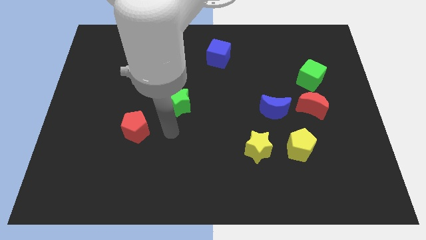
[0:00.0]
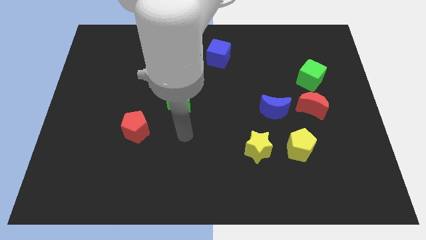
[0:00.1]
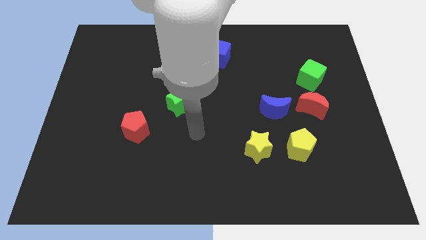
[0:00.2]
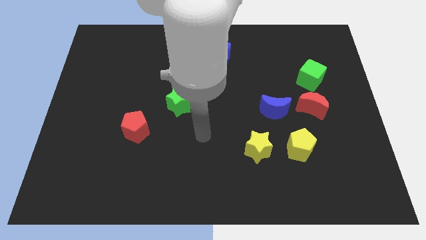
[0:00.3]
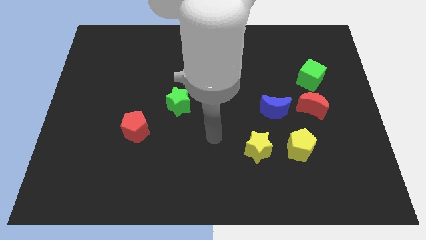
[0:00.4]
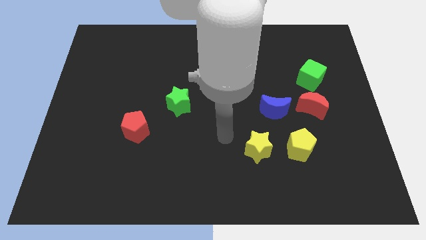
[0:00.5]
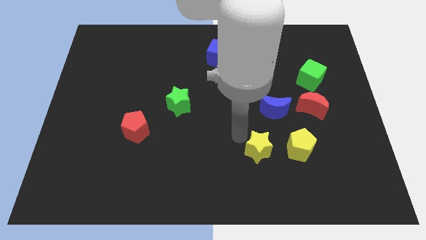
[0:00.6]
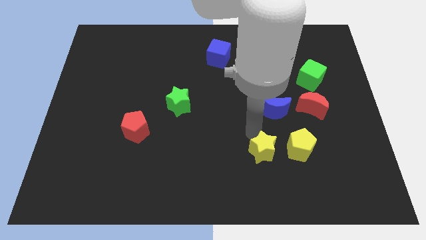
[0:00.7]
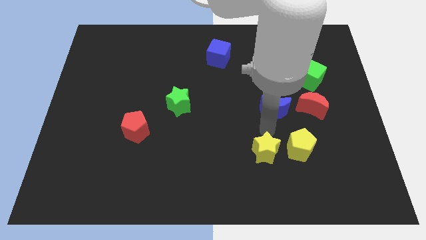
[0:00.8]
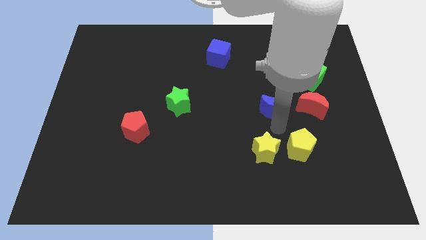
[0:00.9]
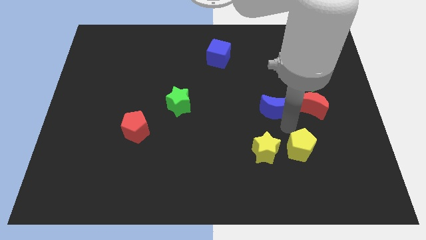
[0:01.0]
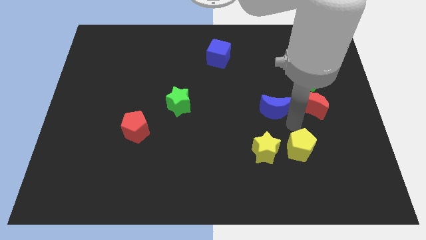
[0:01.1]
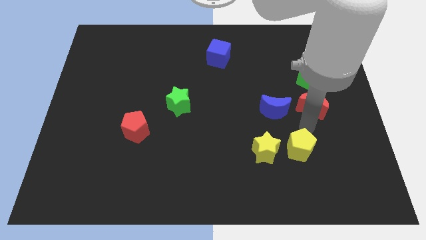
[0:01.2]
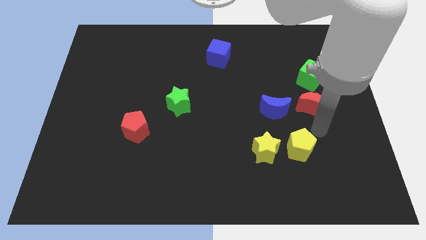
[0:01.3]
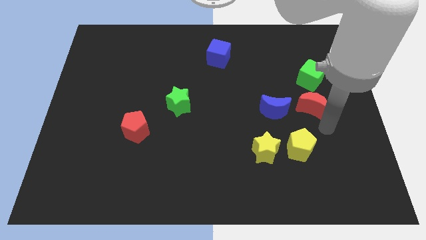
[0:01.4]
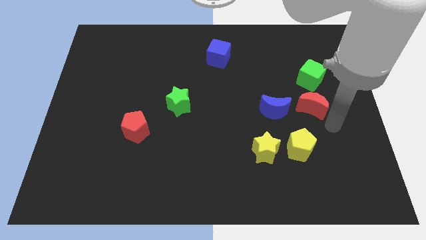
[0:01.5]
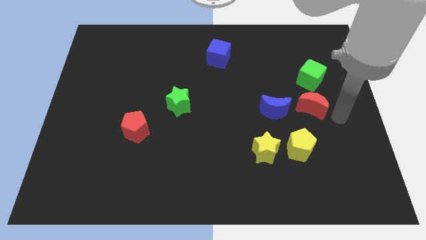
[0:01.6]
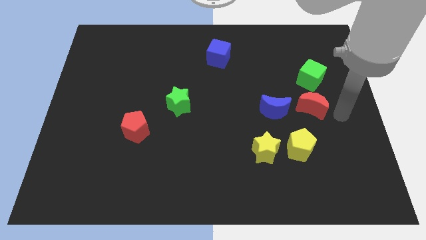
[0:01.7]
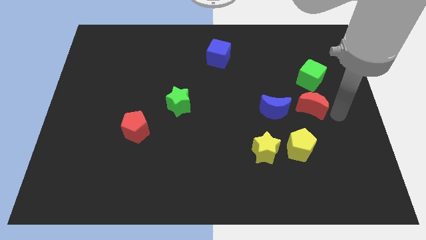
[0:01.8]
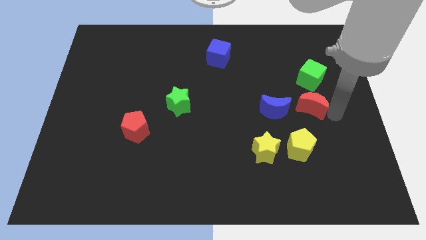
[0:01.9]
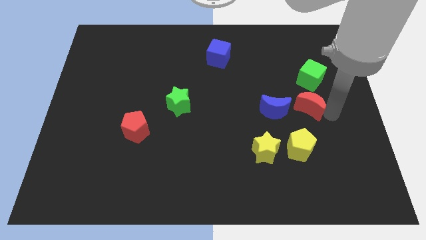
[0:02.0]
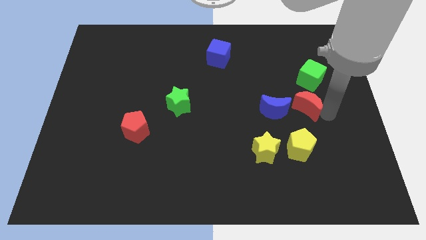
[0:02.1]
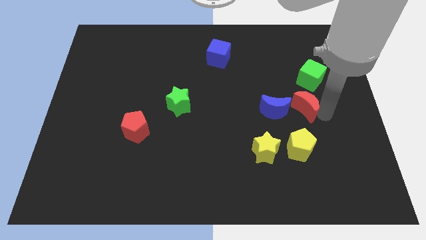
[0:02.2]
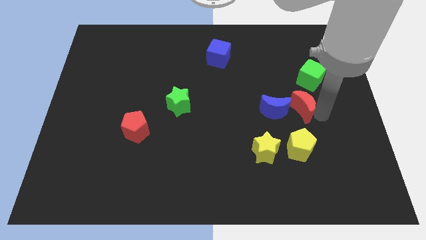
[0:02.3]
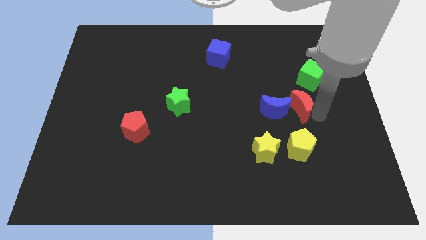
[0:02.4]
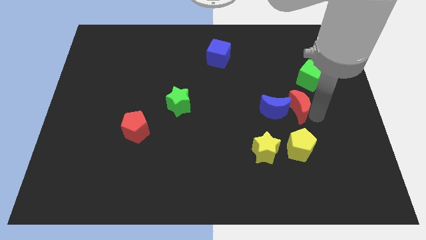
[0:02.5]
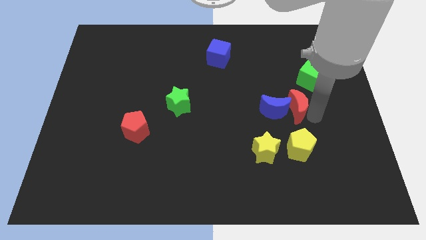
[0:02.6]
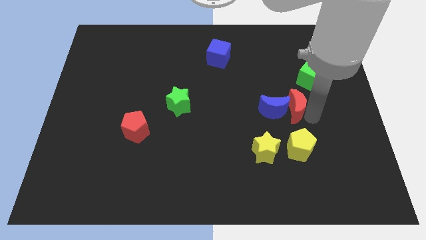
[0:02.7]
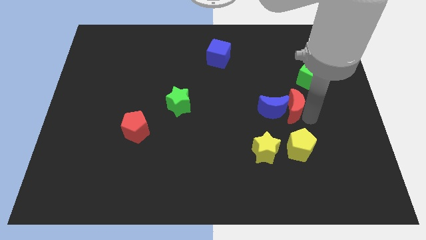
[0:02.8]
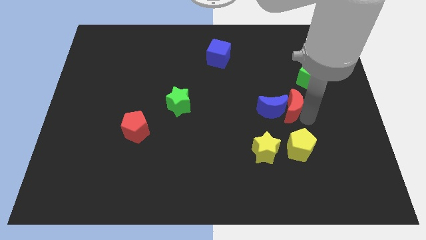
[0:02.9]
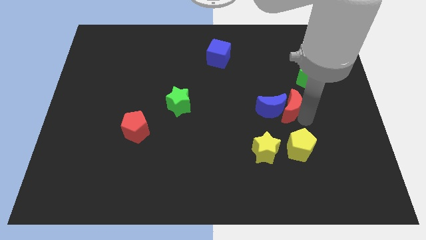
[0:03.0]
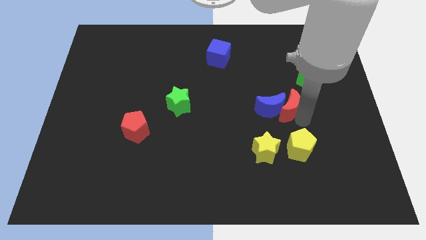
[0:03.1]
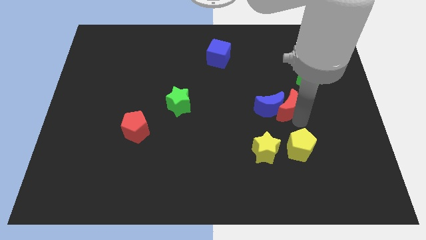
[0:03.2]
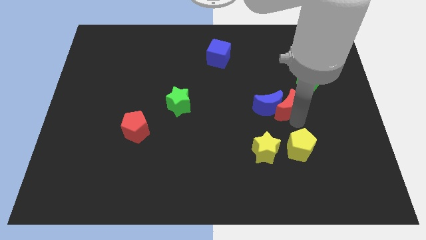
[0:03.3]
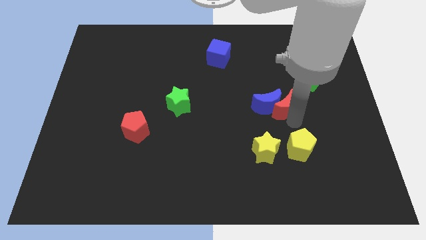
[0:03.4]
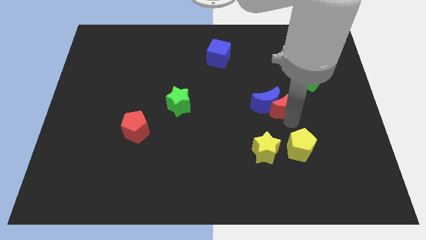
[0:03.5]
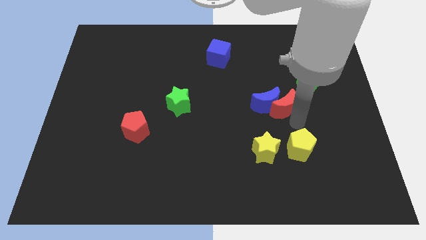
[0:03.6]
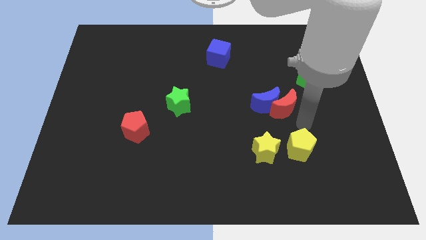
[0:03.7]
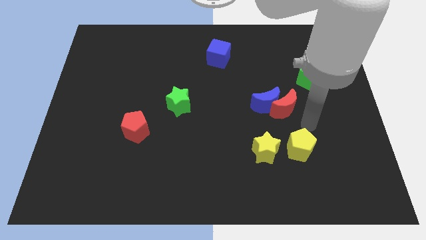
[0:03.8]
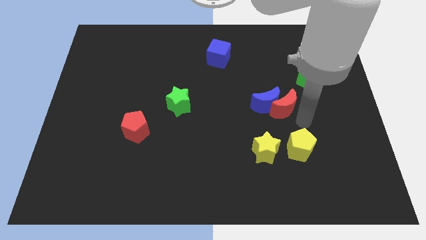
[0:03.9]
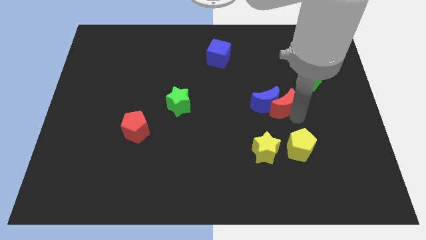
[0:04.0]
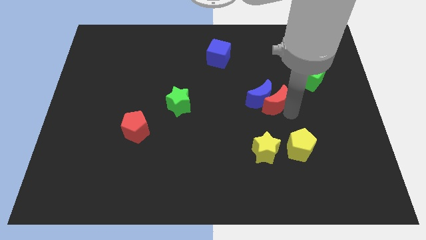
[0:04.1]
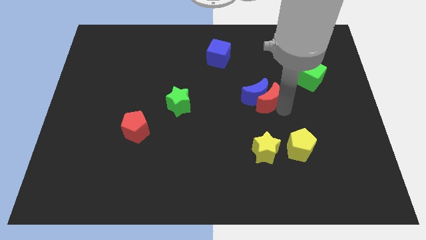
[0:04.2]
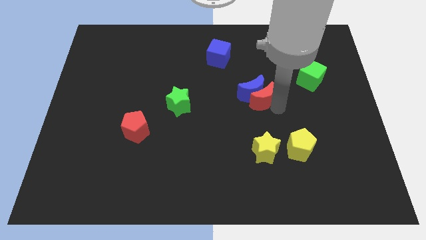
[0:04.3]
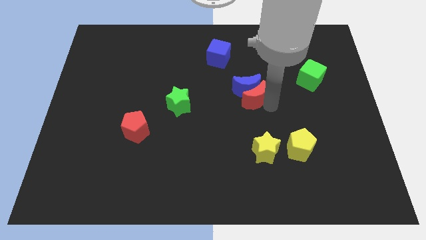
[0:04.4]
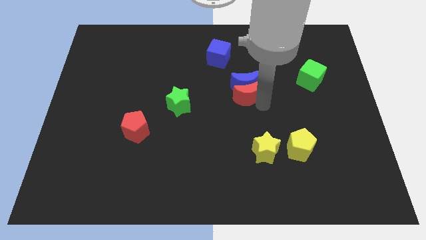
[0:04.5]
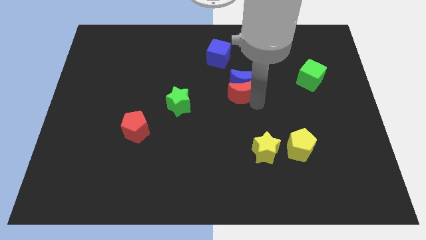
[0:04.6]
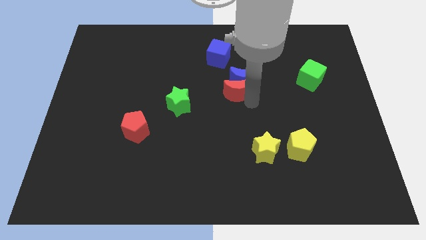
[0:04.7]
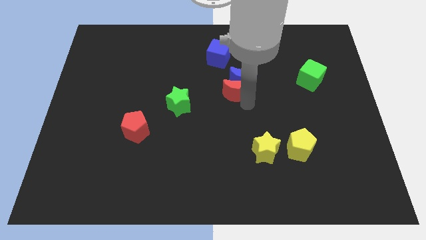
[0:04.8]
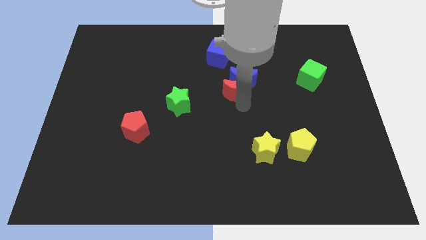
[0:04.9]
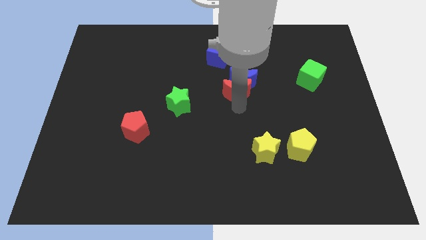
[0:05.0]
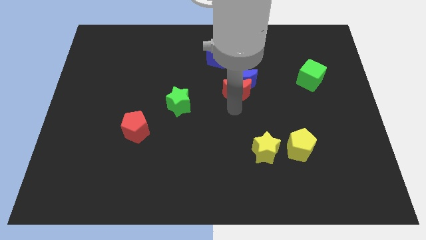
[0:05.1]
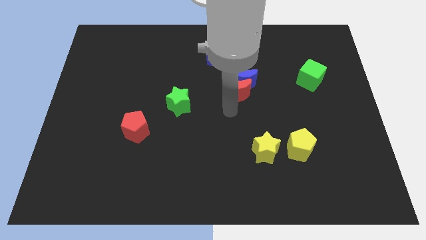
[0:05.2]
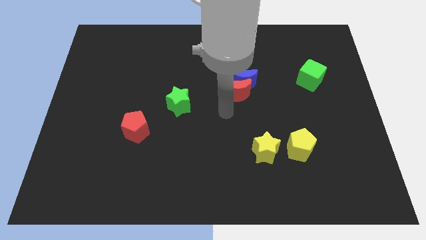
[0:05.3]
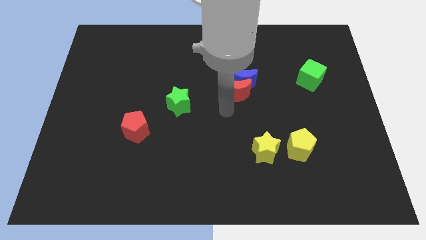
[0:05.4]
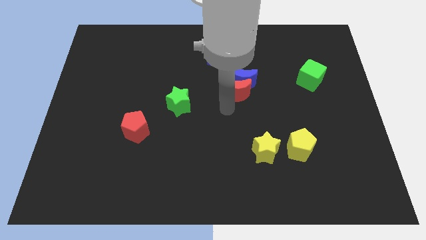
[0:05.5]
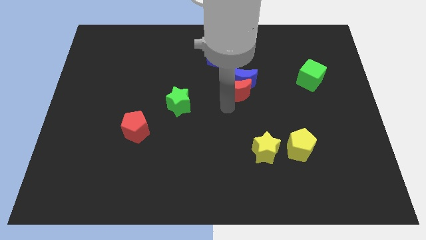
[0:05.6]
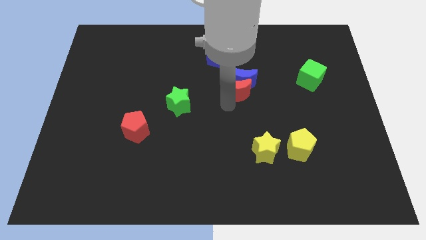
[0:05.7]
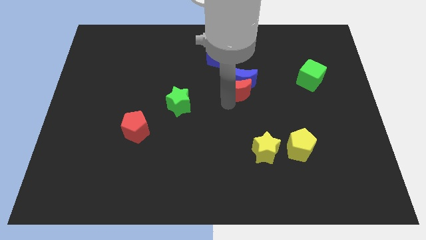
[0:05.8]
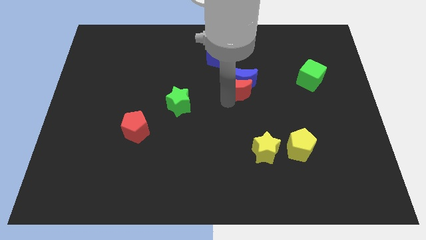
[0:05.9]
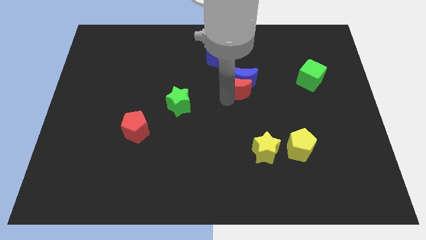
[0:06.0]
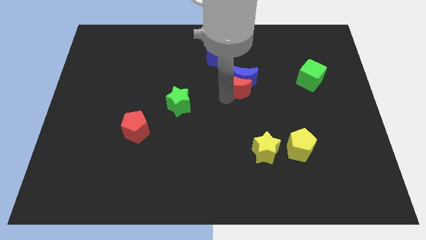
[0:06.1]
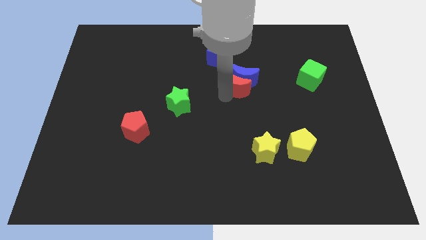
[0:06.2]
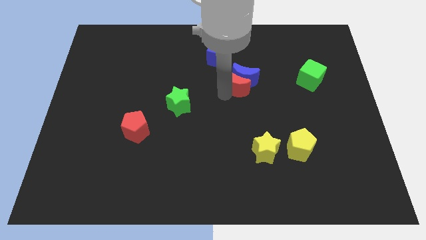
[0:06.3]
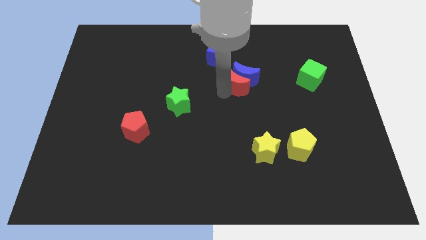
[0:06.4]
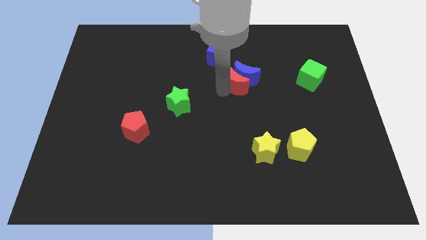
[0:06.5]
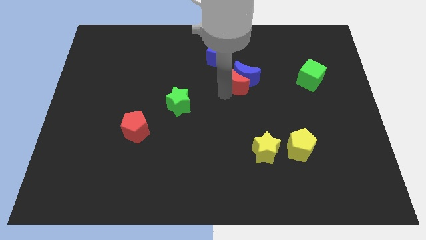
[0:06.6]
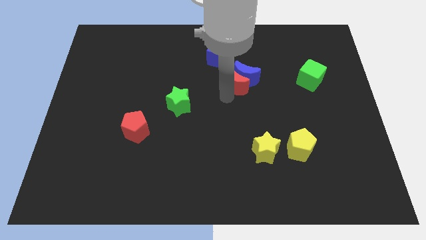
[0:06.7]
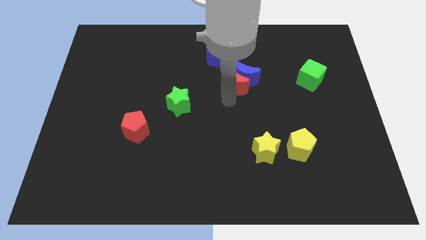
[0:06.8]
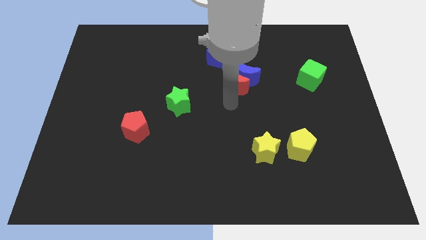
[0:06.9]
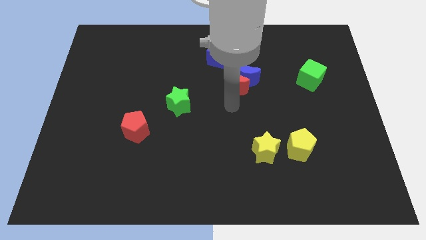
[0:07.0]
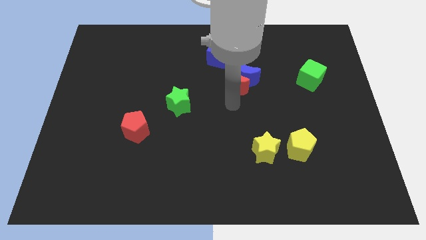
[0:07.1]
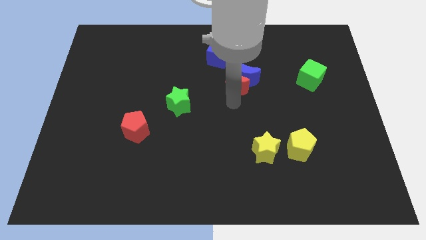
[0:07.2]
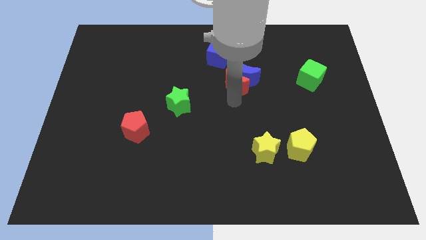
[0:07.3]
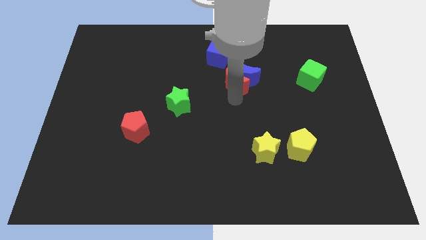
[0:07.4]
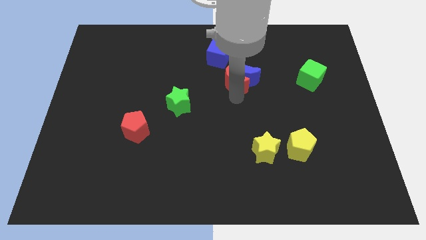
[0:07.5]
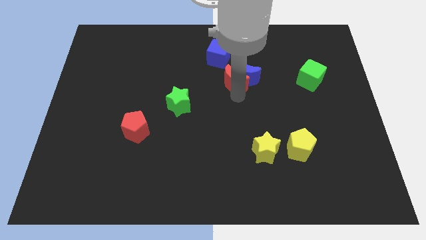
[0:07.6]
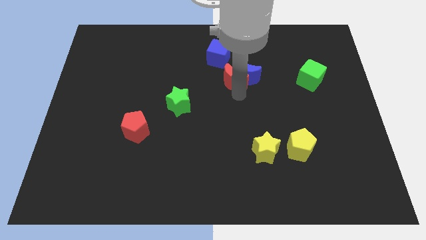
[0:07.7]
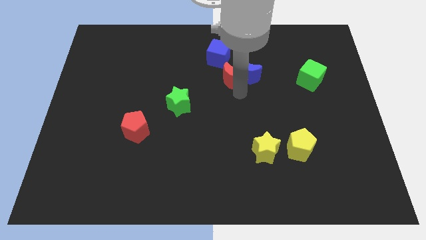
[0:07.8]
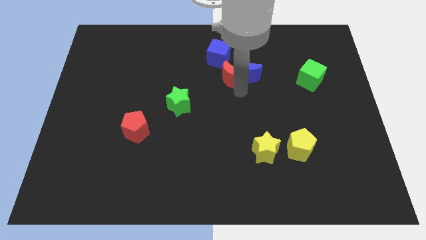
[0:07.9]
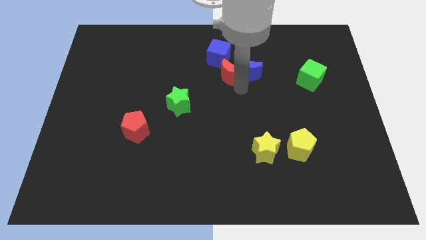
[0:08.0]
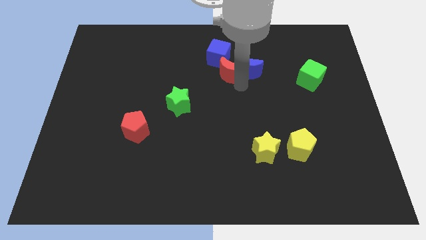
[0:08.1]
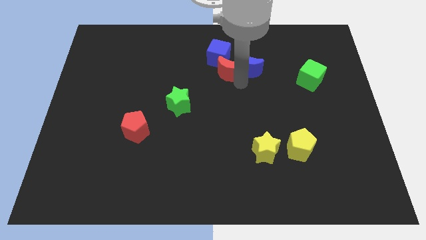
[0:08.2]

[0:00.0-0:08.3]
put the red moon close to the blue cube
